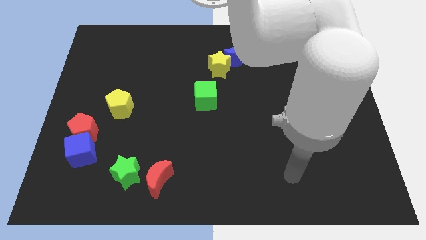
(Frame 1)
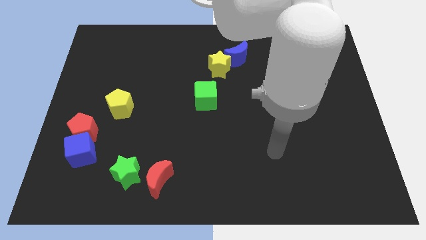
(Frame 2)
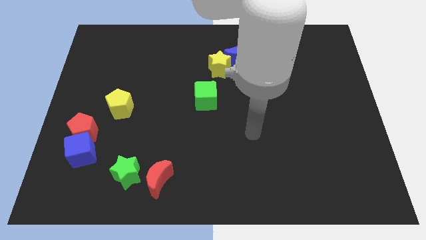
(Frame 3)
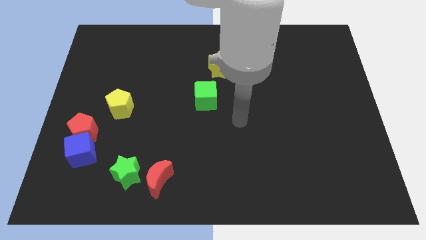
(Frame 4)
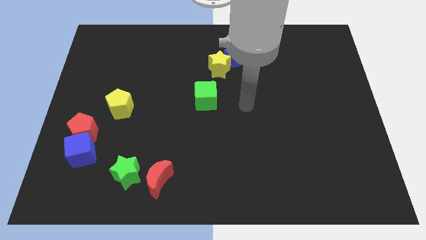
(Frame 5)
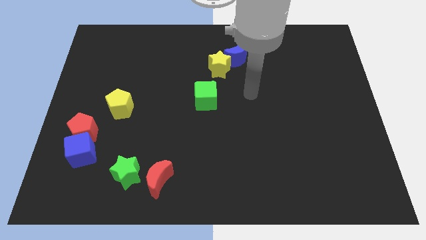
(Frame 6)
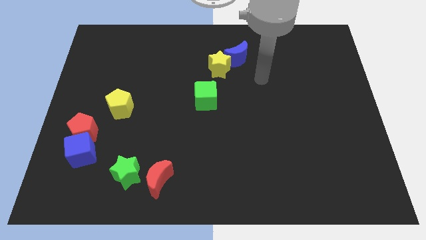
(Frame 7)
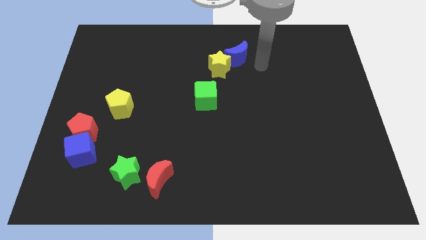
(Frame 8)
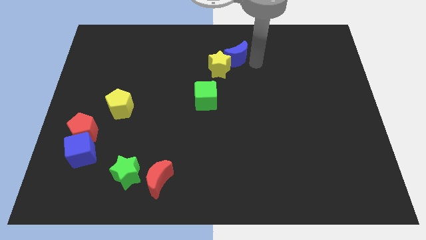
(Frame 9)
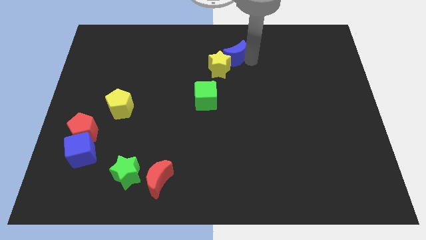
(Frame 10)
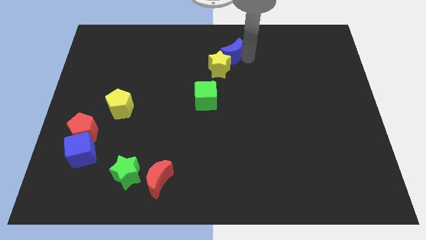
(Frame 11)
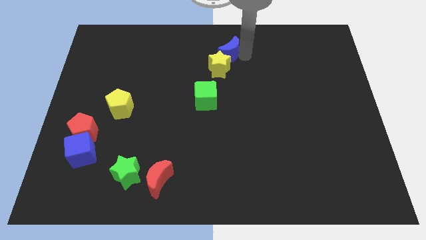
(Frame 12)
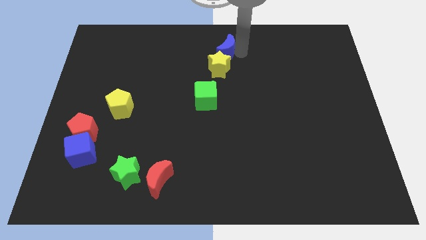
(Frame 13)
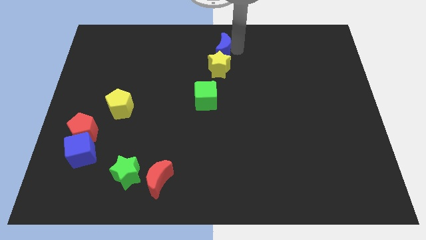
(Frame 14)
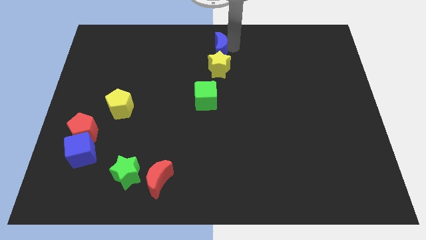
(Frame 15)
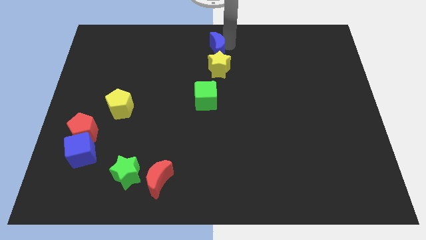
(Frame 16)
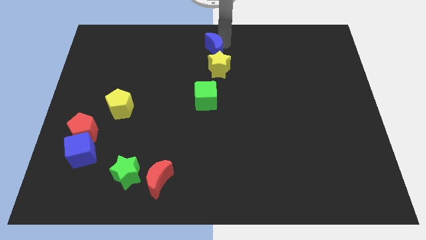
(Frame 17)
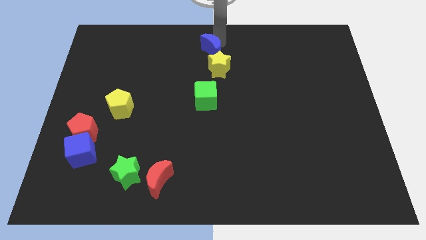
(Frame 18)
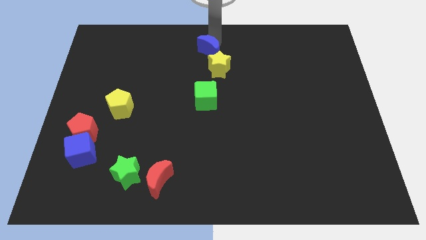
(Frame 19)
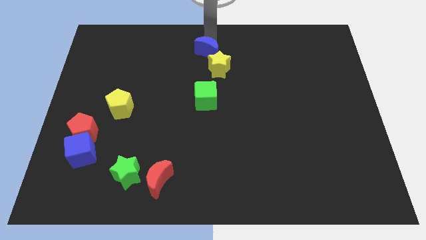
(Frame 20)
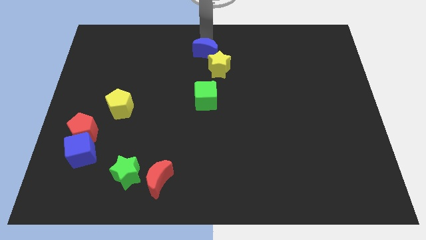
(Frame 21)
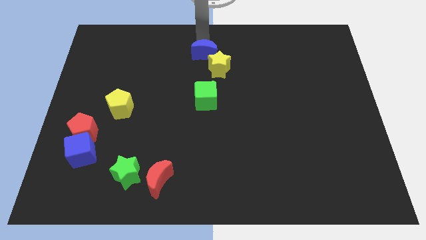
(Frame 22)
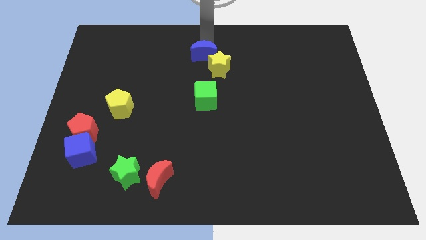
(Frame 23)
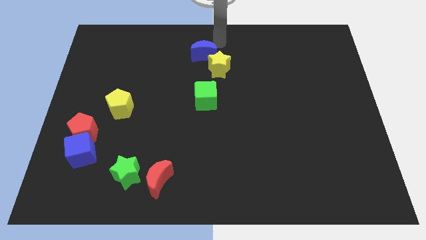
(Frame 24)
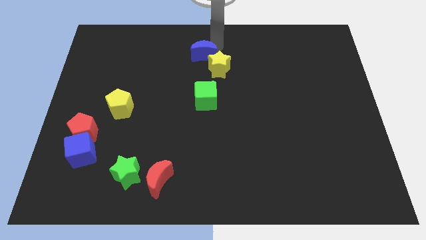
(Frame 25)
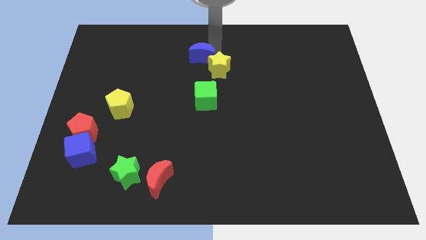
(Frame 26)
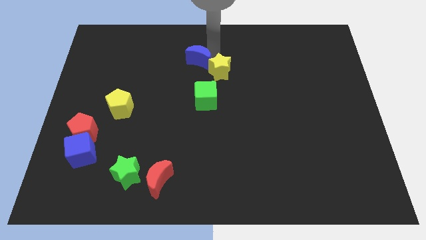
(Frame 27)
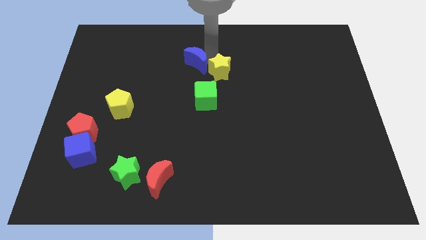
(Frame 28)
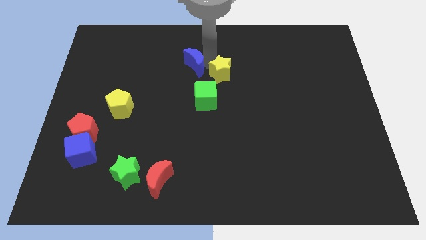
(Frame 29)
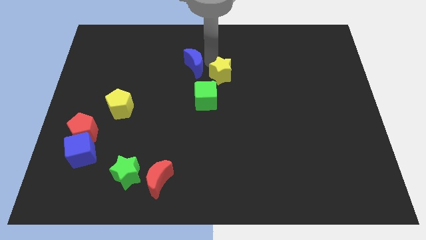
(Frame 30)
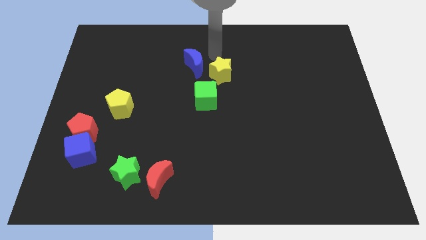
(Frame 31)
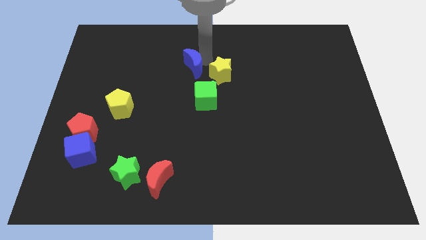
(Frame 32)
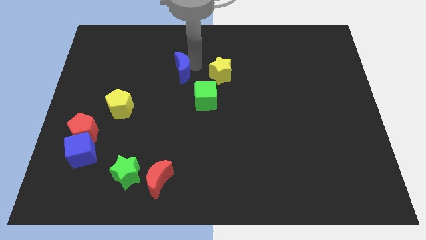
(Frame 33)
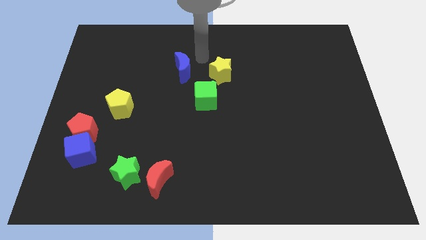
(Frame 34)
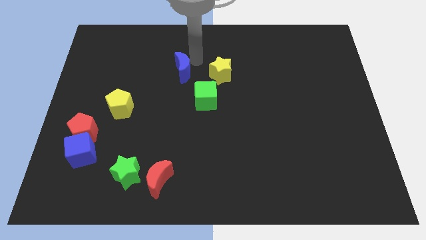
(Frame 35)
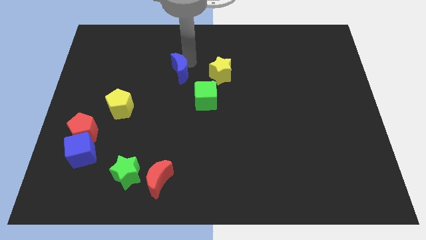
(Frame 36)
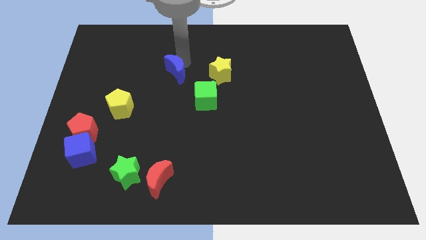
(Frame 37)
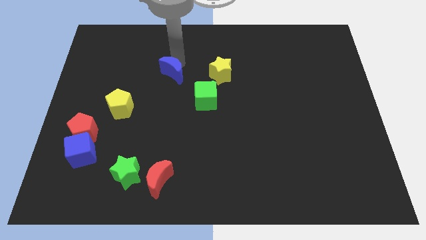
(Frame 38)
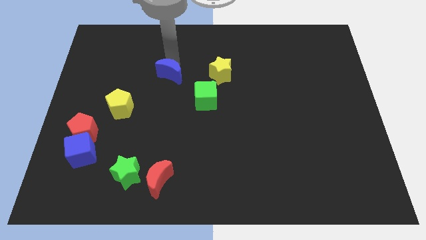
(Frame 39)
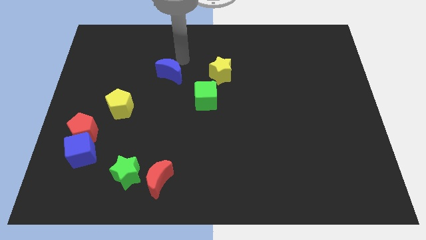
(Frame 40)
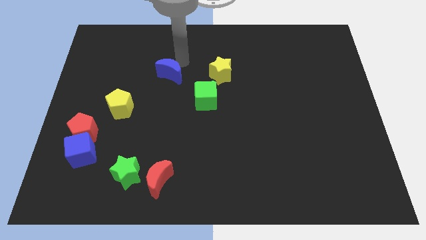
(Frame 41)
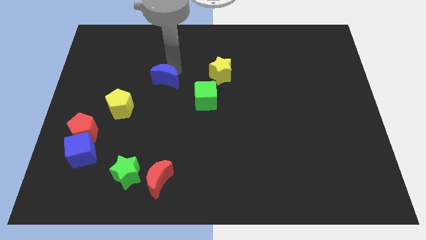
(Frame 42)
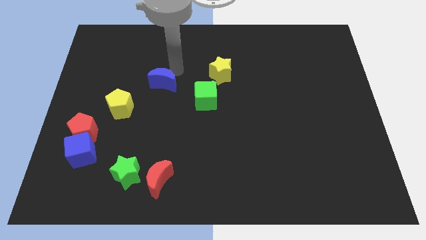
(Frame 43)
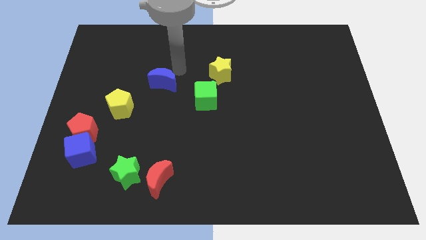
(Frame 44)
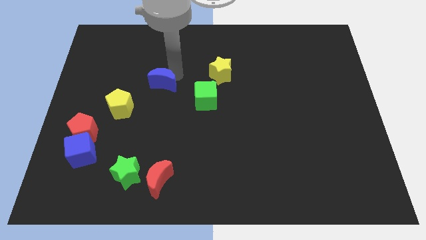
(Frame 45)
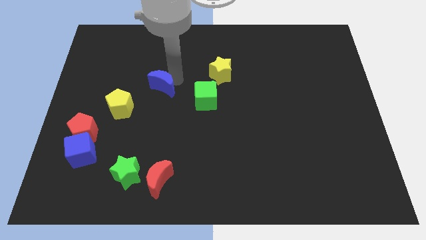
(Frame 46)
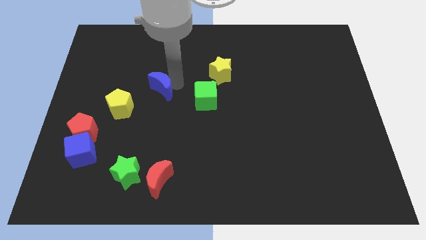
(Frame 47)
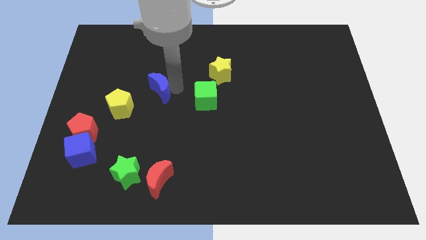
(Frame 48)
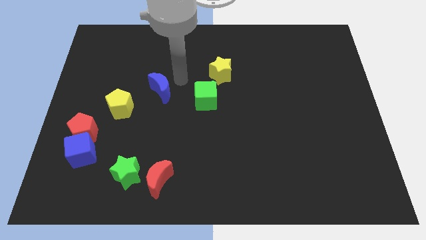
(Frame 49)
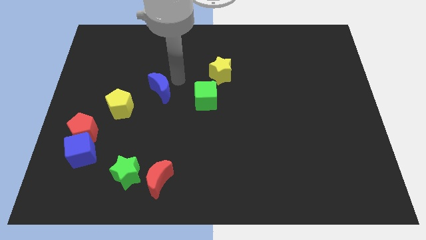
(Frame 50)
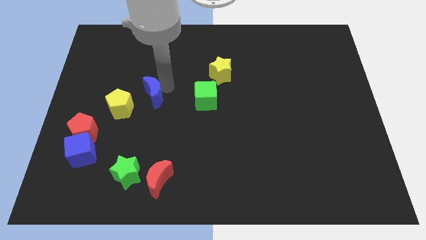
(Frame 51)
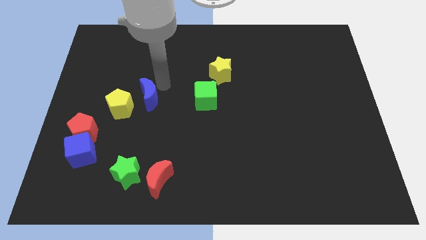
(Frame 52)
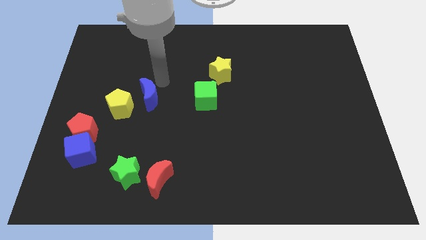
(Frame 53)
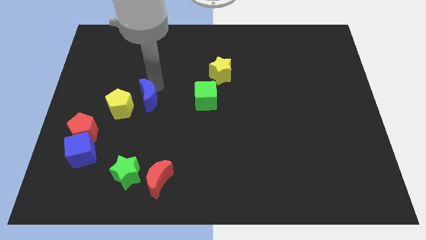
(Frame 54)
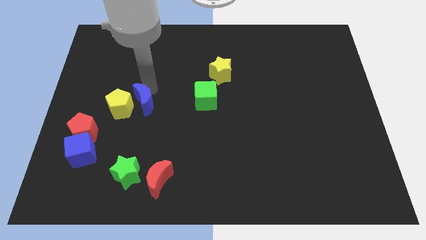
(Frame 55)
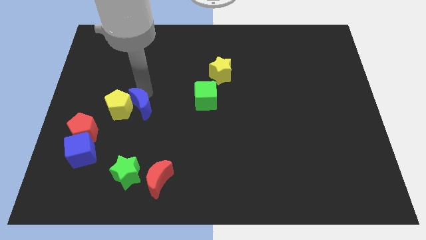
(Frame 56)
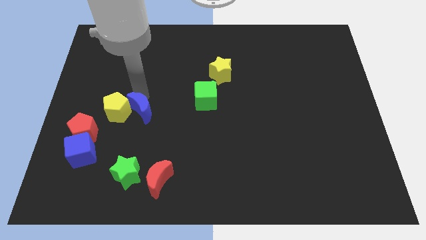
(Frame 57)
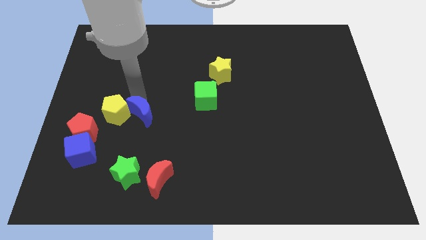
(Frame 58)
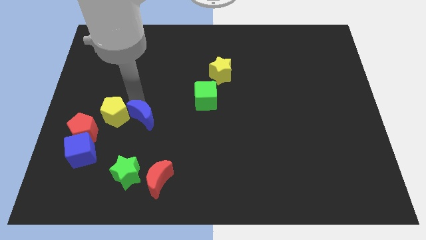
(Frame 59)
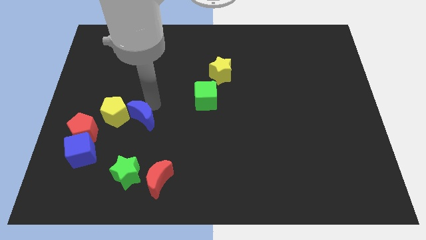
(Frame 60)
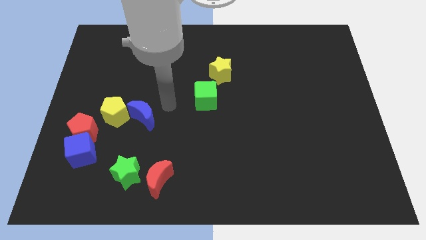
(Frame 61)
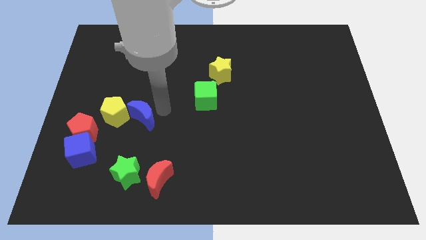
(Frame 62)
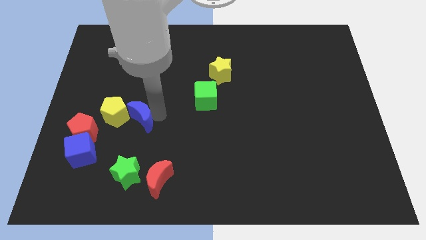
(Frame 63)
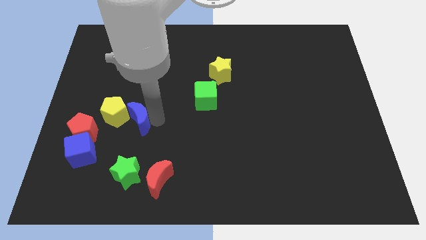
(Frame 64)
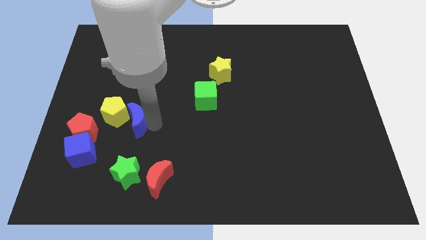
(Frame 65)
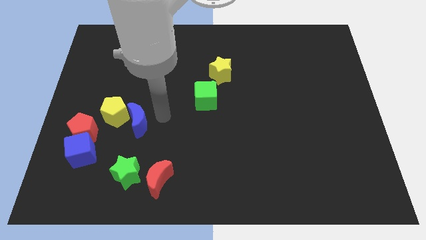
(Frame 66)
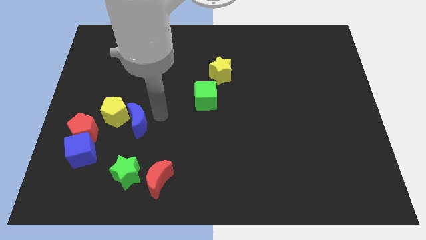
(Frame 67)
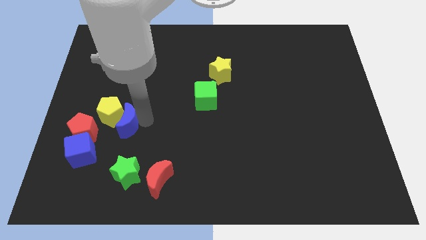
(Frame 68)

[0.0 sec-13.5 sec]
slide the blue moon to the top right of the blue cube

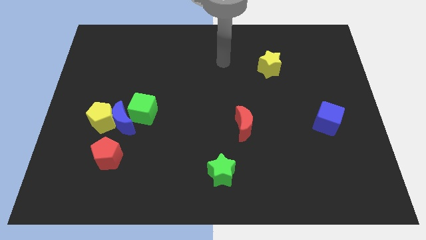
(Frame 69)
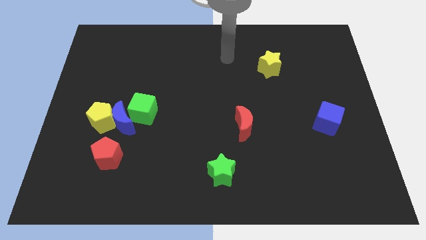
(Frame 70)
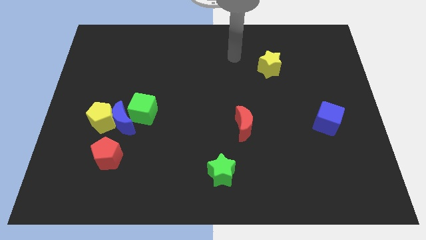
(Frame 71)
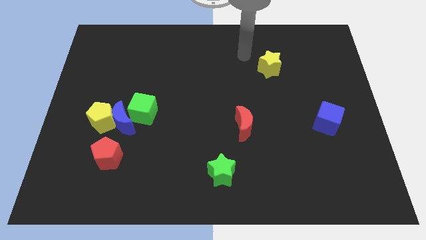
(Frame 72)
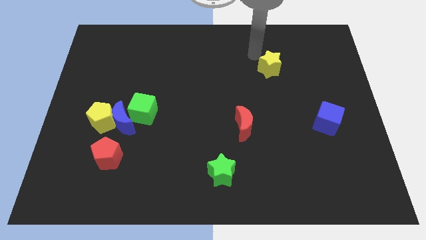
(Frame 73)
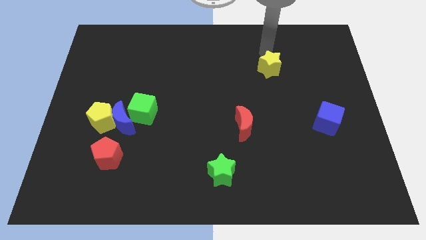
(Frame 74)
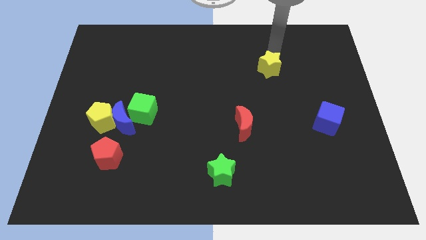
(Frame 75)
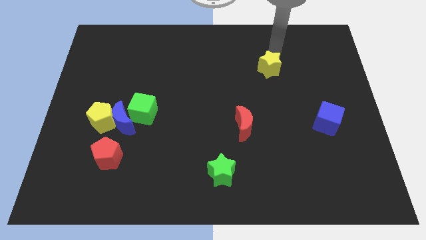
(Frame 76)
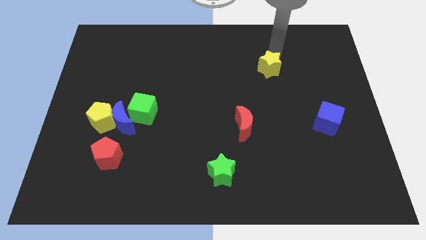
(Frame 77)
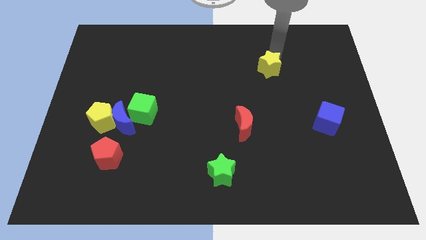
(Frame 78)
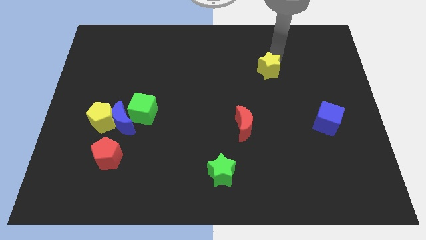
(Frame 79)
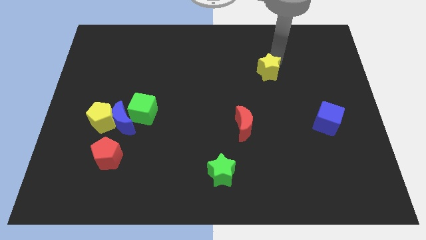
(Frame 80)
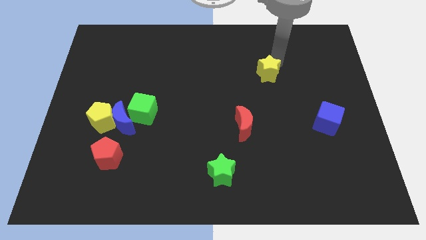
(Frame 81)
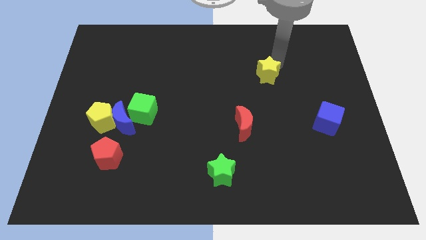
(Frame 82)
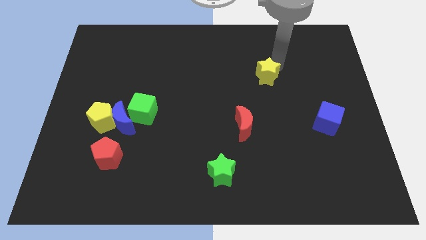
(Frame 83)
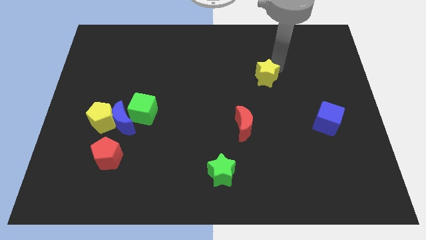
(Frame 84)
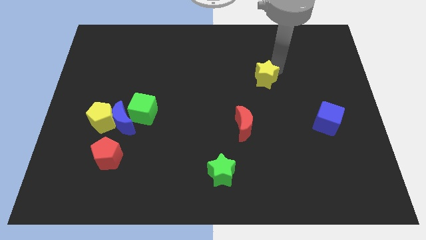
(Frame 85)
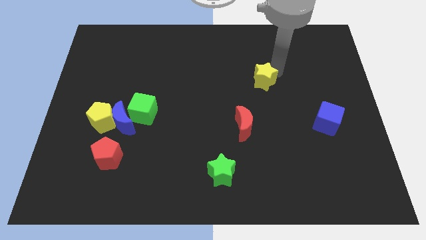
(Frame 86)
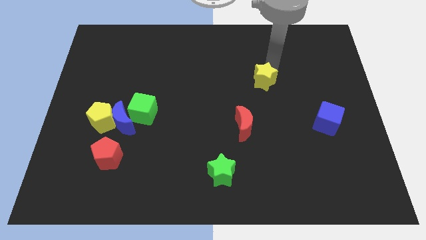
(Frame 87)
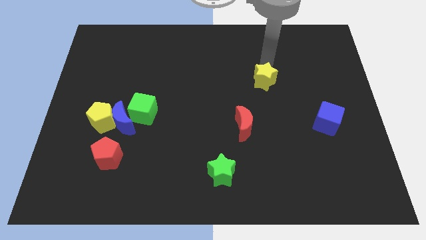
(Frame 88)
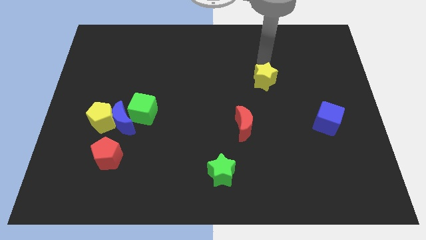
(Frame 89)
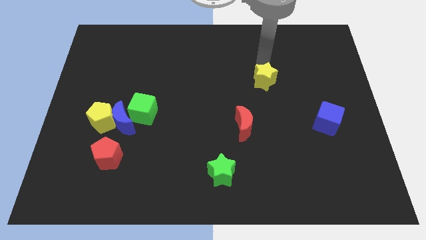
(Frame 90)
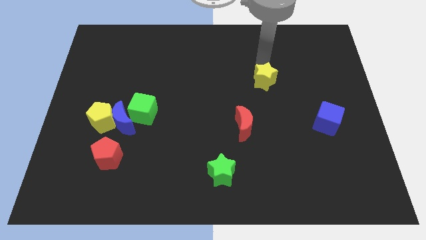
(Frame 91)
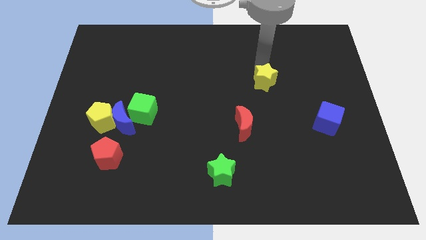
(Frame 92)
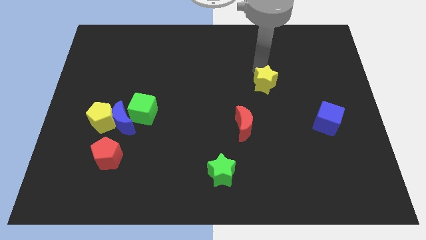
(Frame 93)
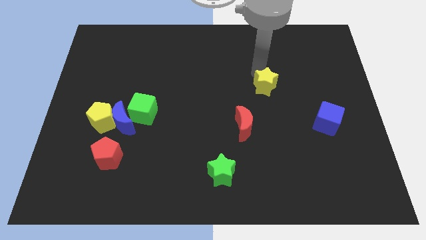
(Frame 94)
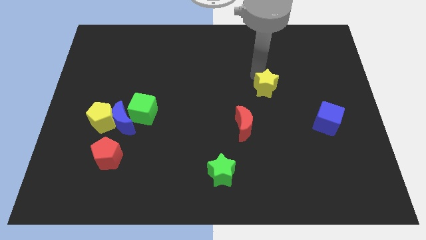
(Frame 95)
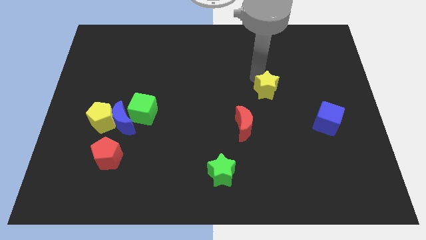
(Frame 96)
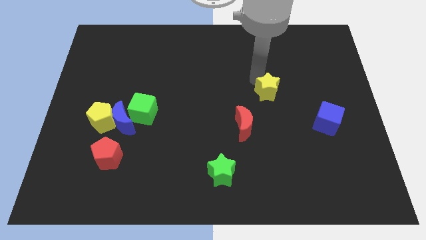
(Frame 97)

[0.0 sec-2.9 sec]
put the yellow star to the top right side of the red moon
